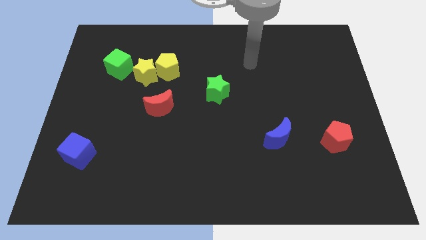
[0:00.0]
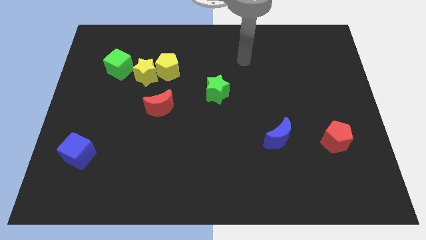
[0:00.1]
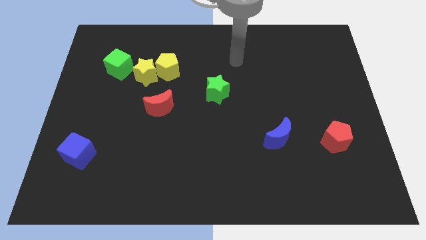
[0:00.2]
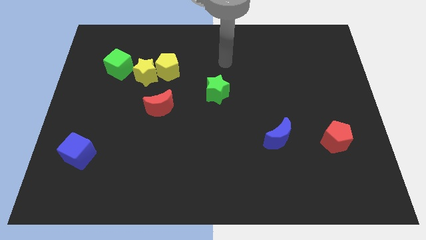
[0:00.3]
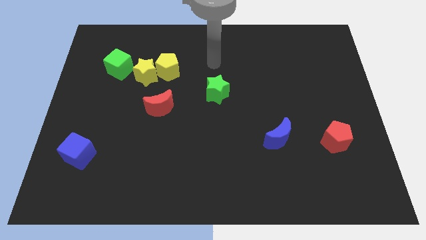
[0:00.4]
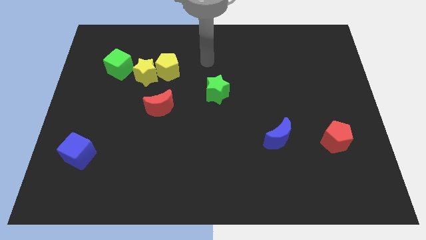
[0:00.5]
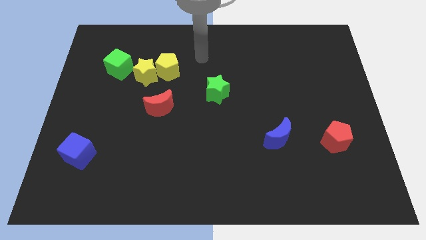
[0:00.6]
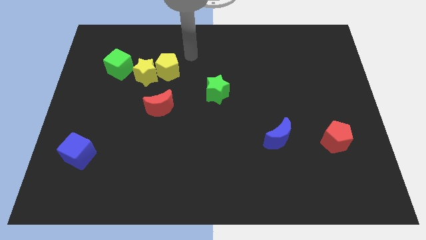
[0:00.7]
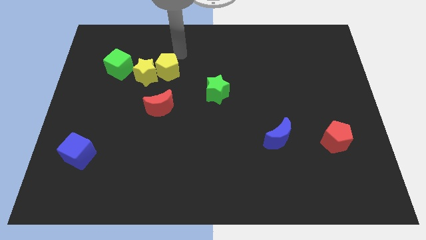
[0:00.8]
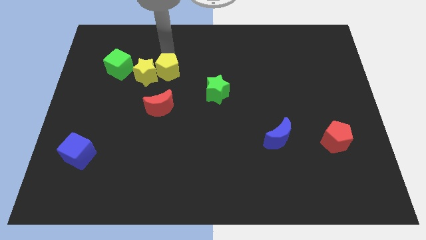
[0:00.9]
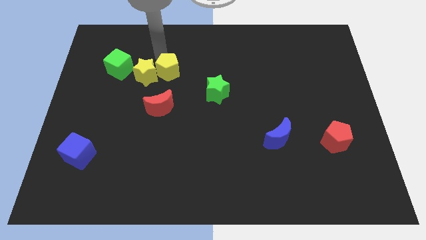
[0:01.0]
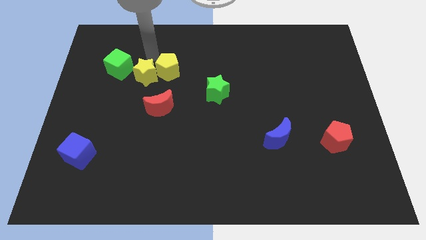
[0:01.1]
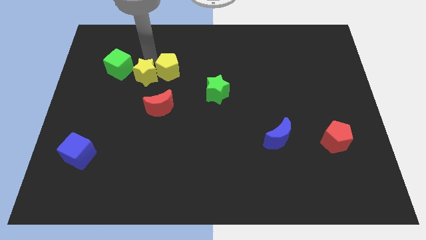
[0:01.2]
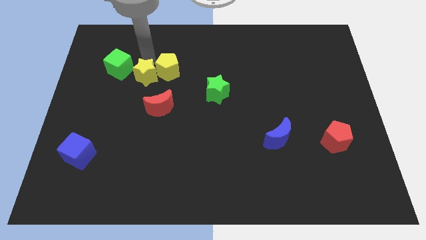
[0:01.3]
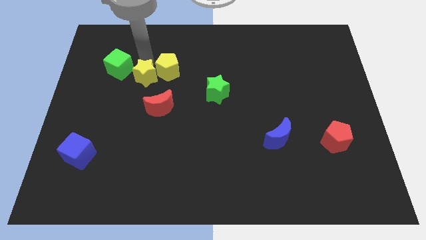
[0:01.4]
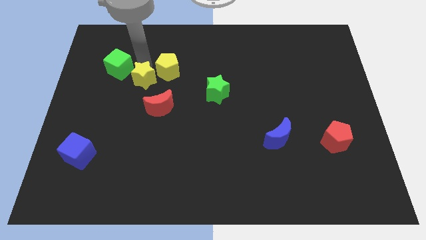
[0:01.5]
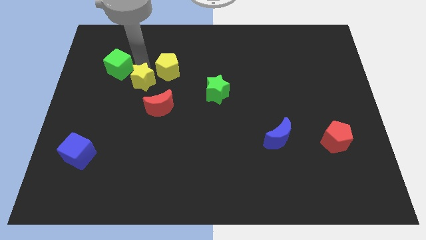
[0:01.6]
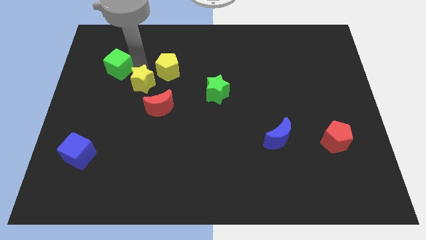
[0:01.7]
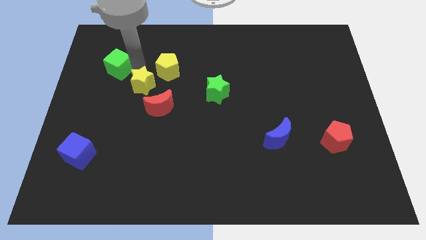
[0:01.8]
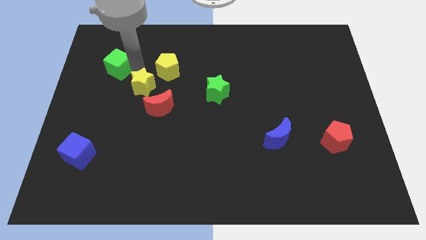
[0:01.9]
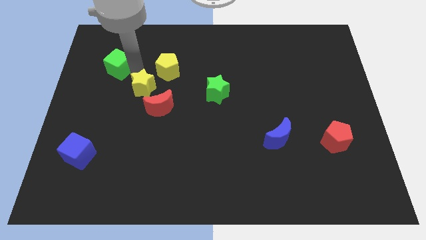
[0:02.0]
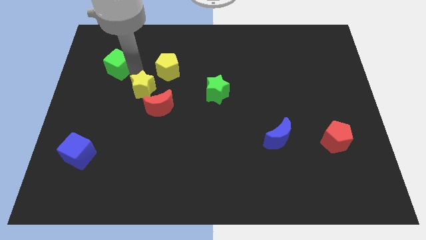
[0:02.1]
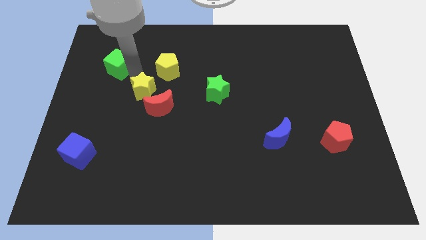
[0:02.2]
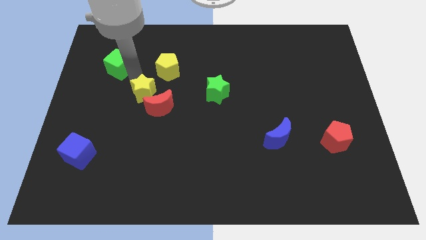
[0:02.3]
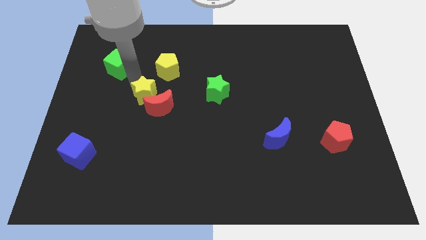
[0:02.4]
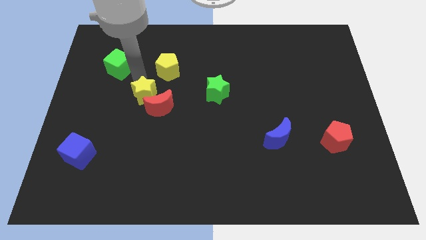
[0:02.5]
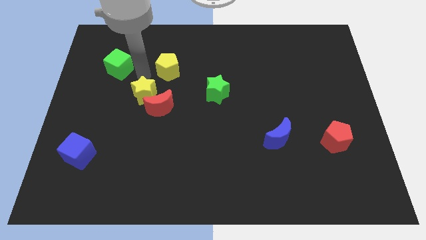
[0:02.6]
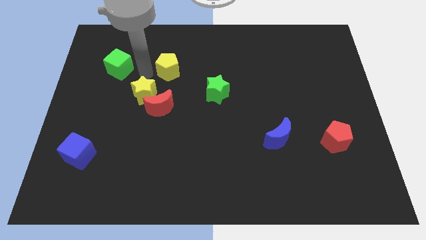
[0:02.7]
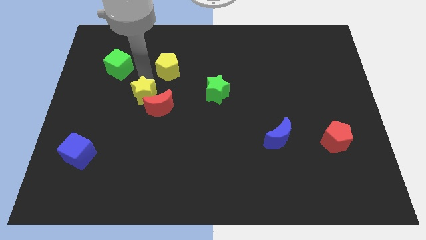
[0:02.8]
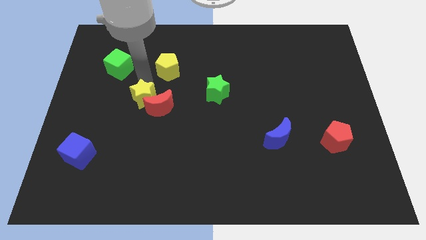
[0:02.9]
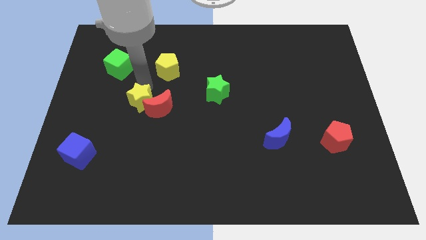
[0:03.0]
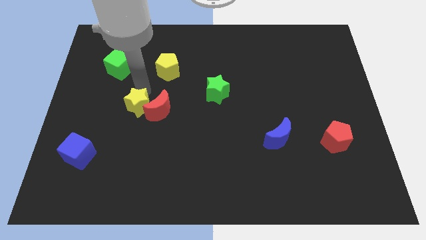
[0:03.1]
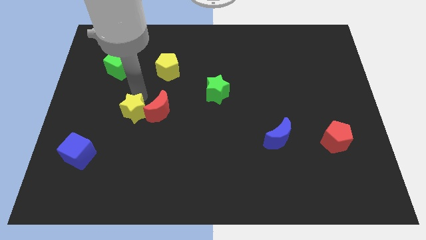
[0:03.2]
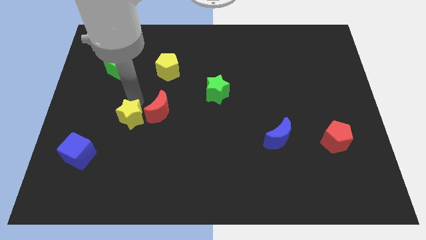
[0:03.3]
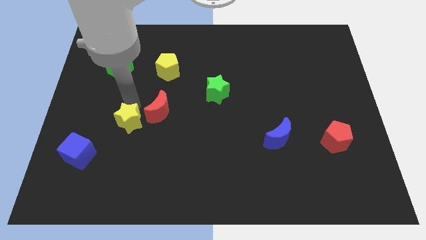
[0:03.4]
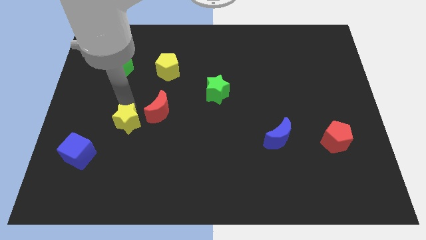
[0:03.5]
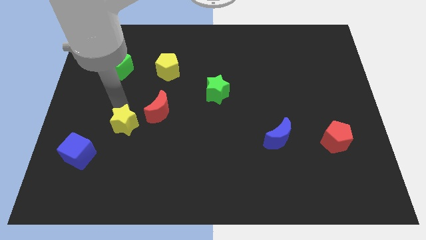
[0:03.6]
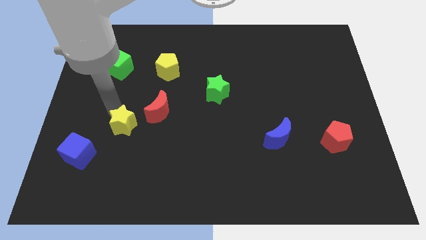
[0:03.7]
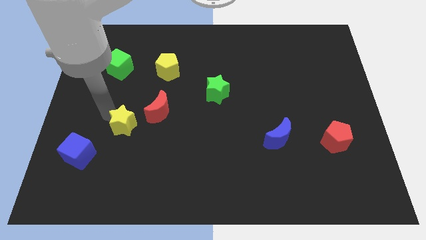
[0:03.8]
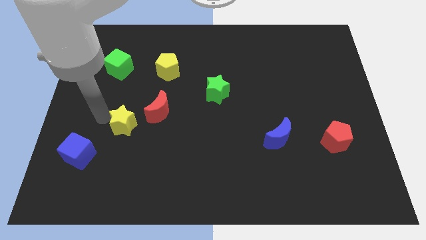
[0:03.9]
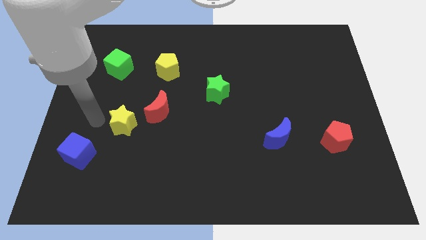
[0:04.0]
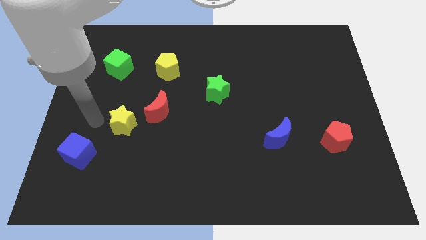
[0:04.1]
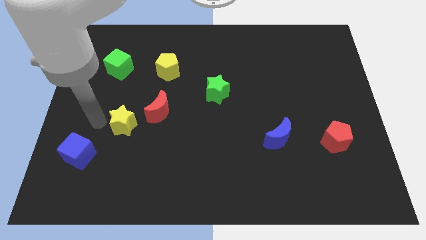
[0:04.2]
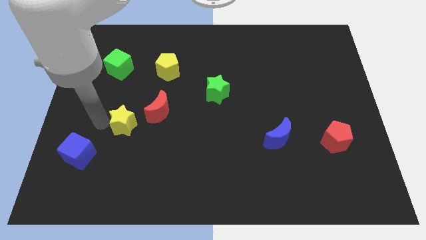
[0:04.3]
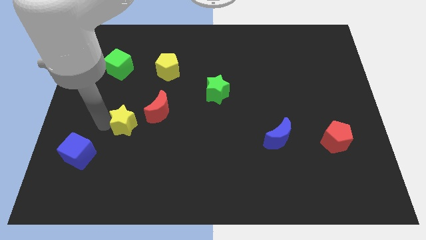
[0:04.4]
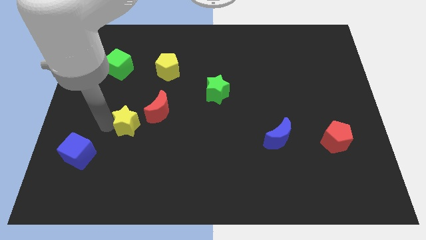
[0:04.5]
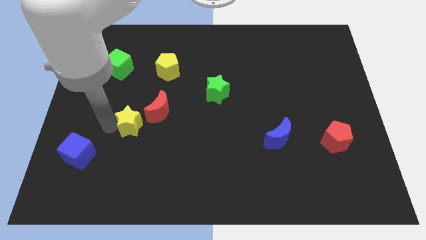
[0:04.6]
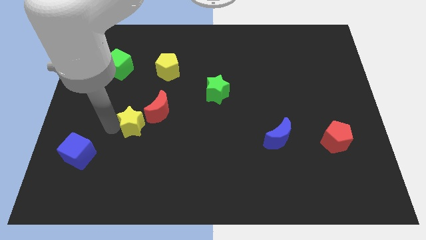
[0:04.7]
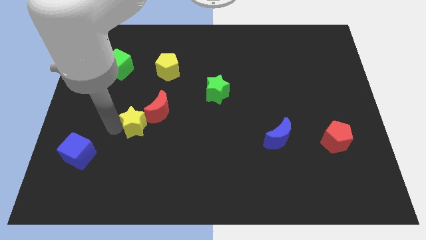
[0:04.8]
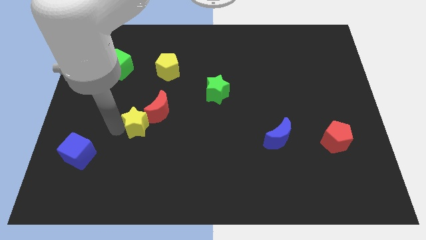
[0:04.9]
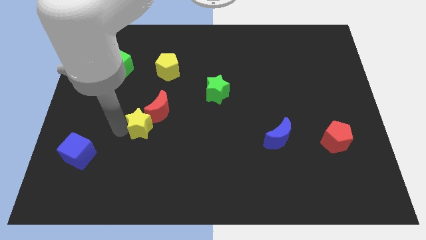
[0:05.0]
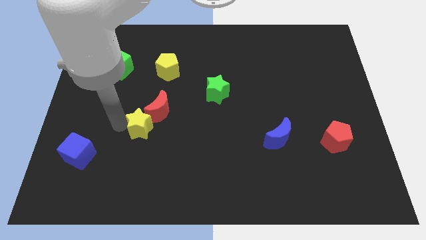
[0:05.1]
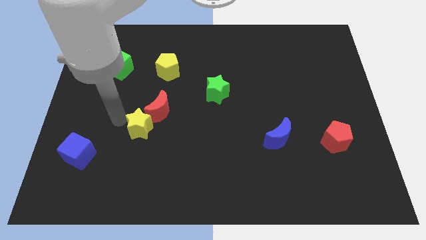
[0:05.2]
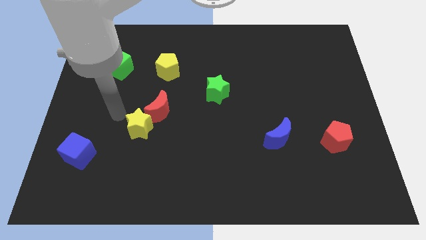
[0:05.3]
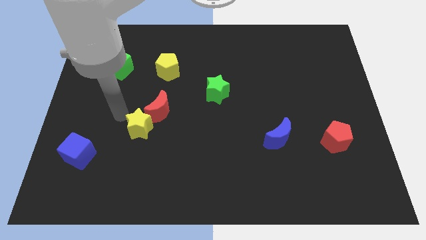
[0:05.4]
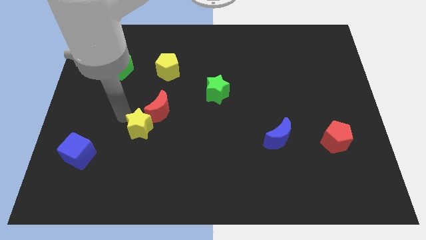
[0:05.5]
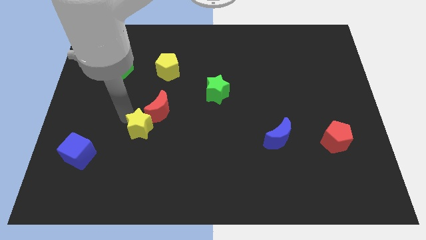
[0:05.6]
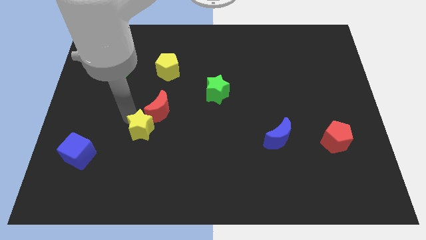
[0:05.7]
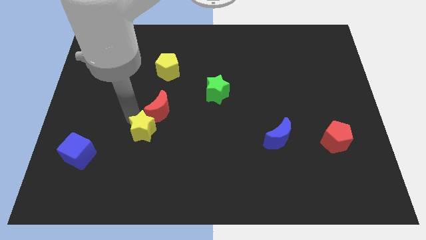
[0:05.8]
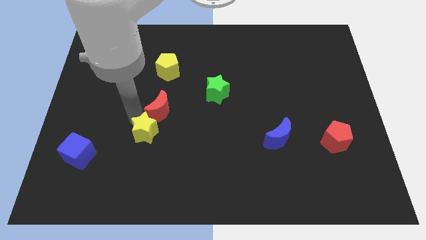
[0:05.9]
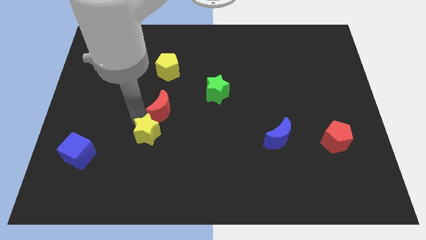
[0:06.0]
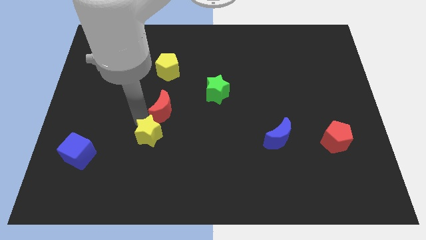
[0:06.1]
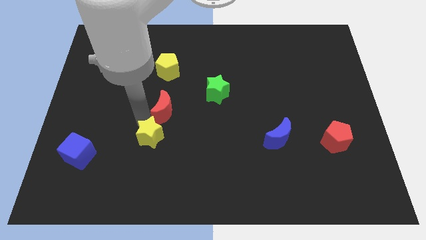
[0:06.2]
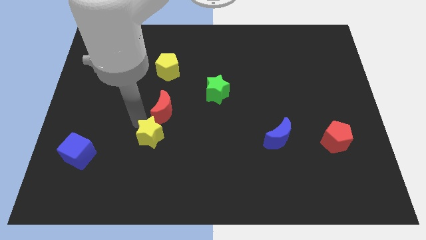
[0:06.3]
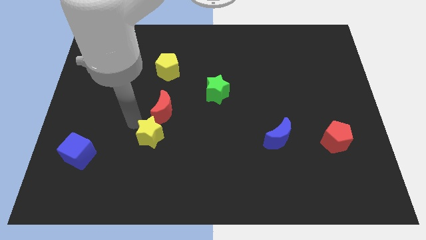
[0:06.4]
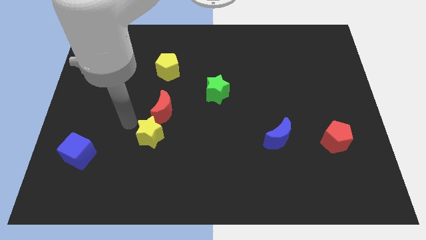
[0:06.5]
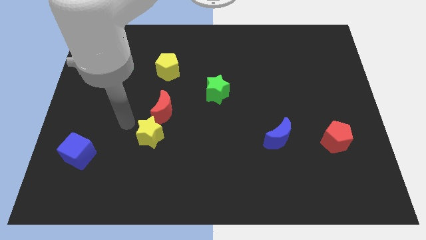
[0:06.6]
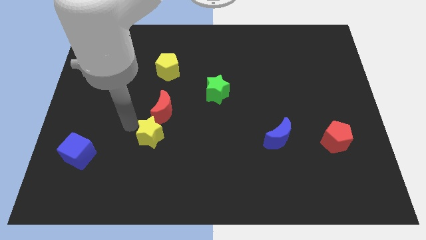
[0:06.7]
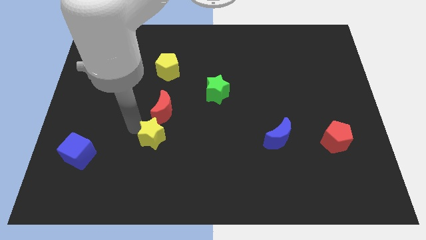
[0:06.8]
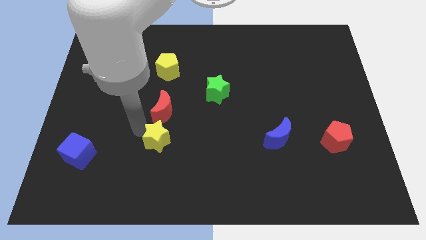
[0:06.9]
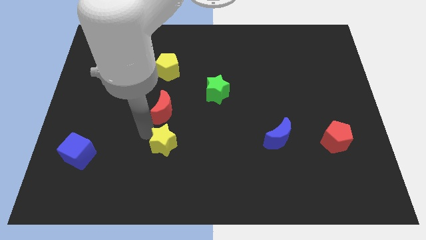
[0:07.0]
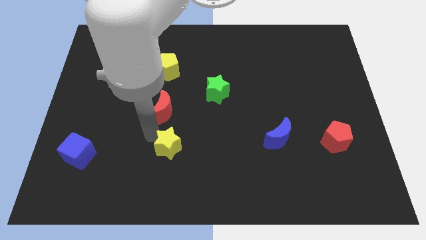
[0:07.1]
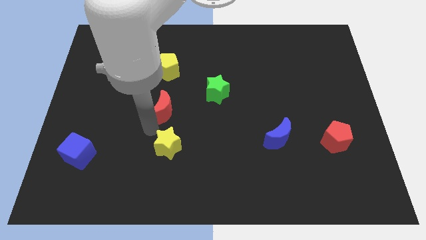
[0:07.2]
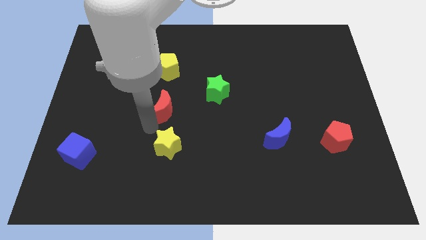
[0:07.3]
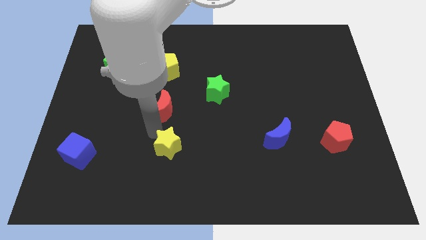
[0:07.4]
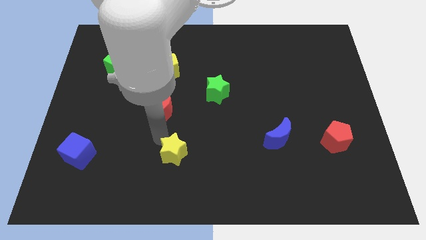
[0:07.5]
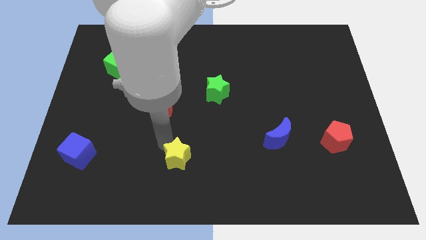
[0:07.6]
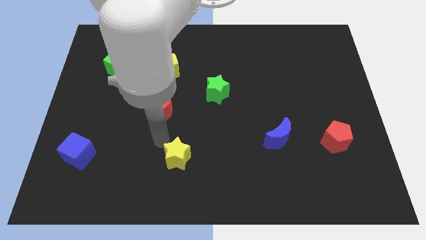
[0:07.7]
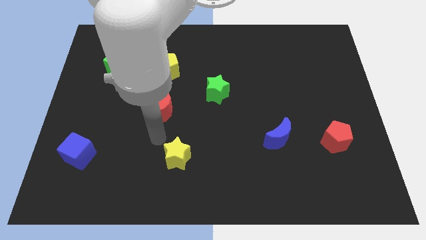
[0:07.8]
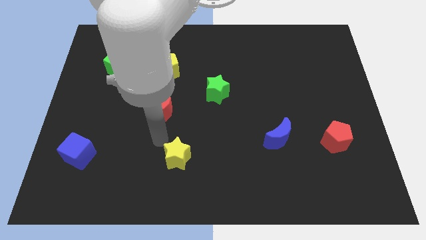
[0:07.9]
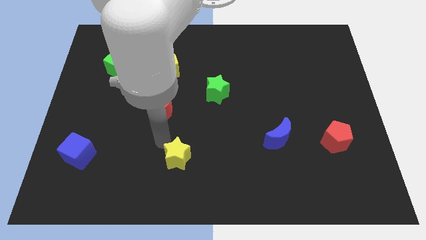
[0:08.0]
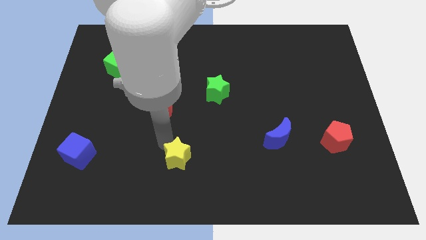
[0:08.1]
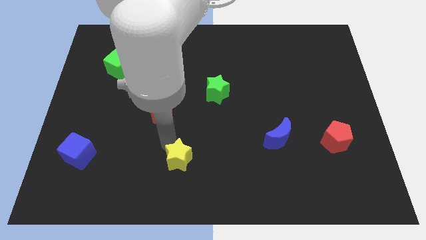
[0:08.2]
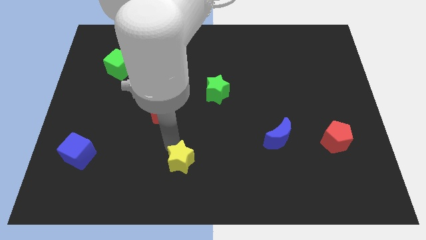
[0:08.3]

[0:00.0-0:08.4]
move the yellow star to the bottom side
